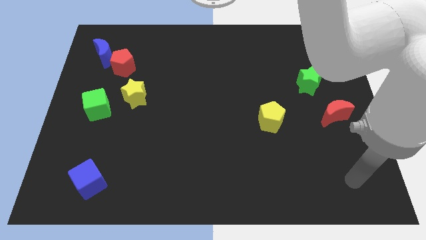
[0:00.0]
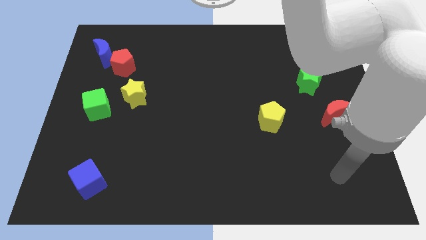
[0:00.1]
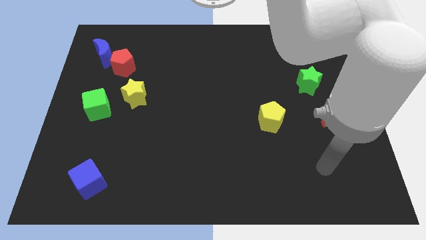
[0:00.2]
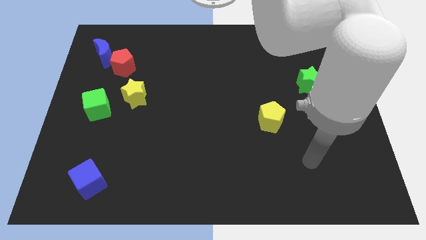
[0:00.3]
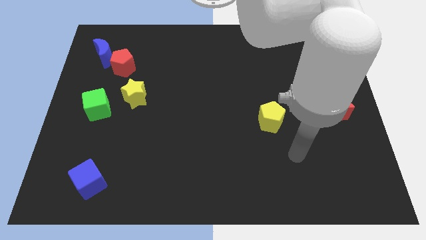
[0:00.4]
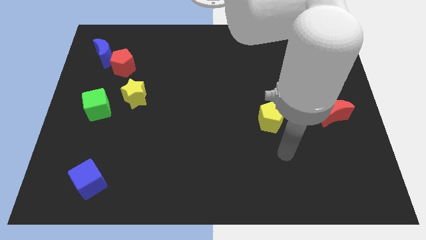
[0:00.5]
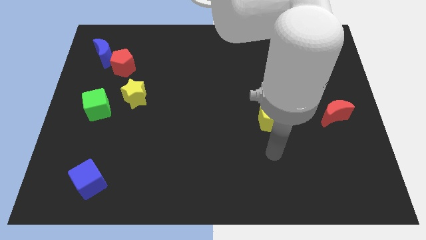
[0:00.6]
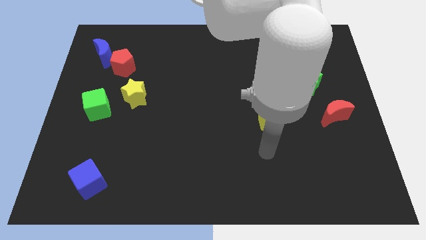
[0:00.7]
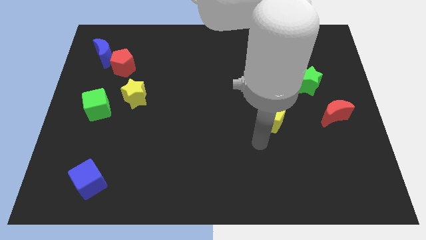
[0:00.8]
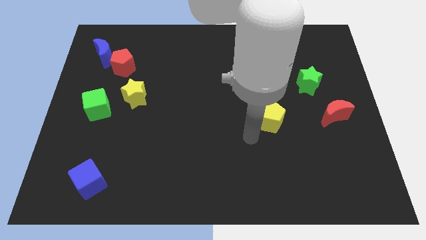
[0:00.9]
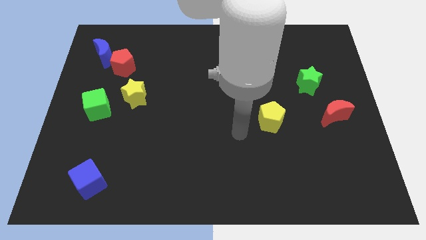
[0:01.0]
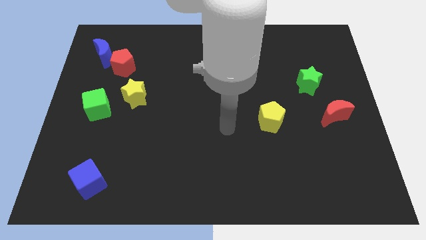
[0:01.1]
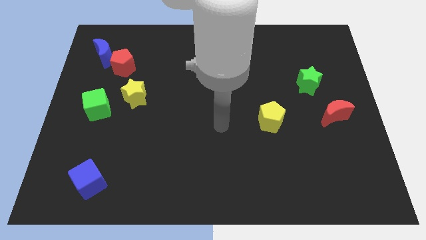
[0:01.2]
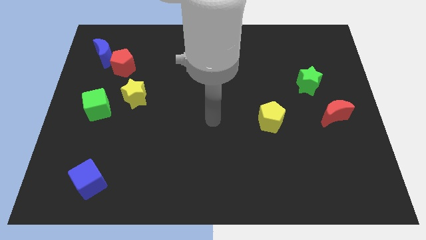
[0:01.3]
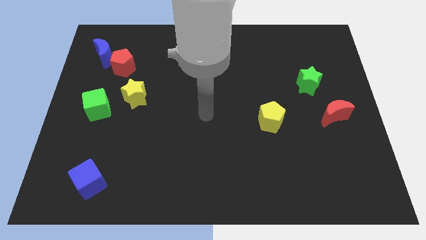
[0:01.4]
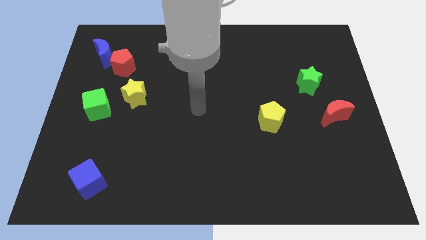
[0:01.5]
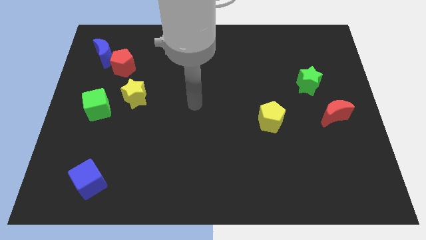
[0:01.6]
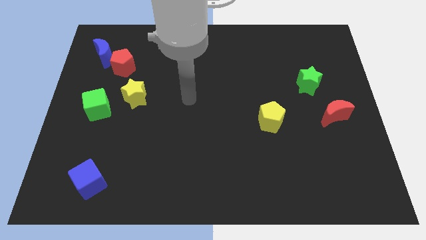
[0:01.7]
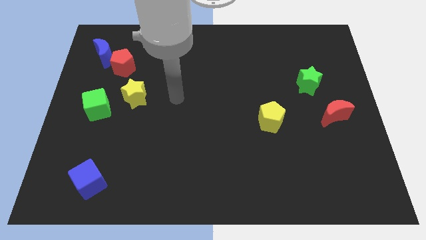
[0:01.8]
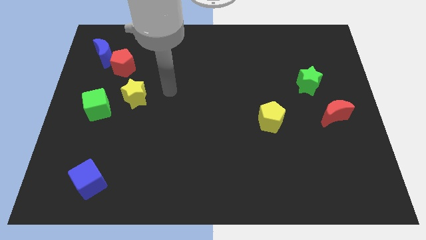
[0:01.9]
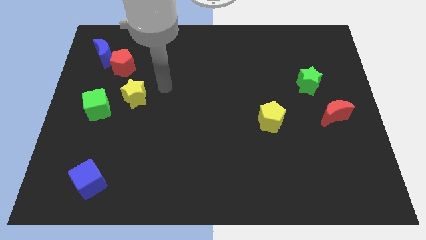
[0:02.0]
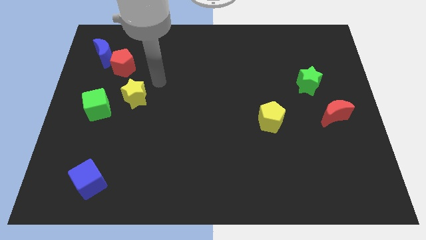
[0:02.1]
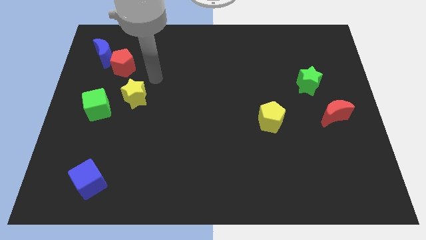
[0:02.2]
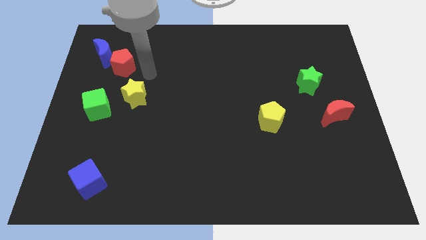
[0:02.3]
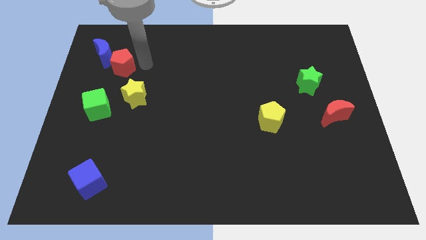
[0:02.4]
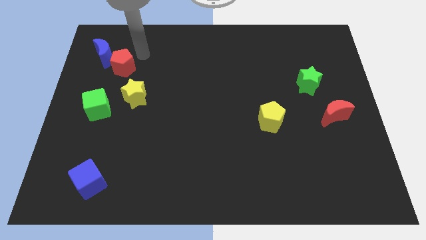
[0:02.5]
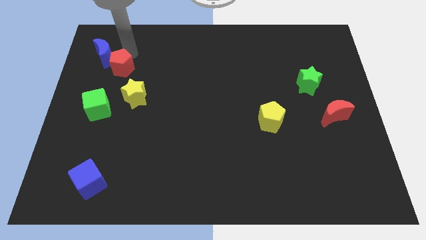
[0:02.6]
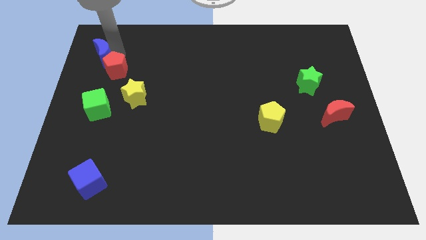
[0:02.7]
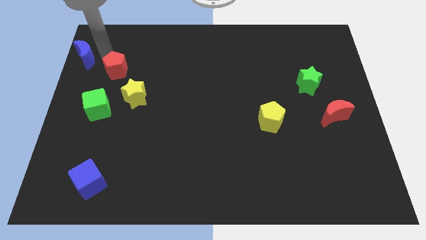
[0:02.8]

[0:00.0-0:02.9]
pull the red pentagon apart from the blue moon

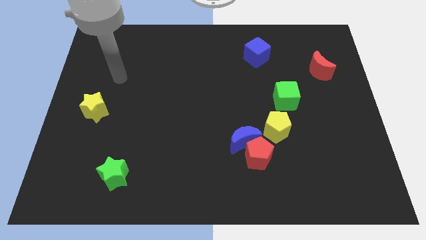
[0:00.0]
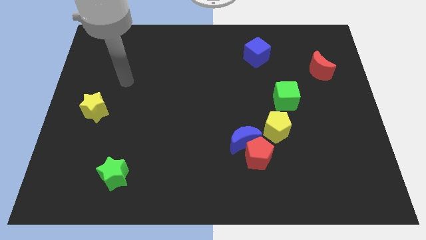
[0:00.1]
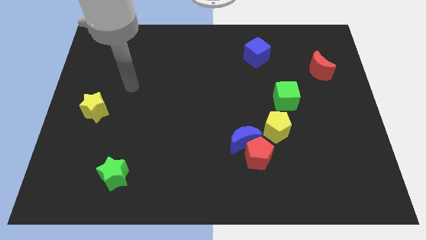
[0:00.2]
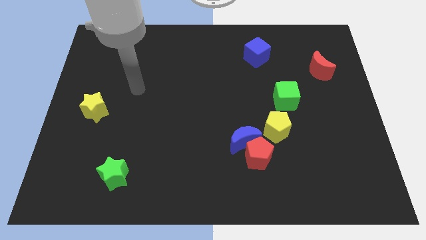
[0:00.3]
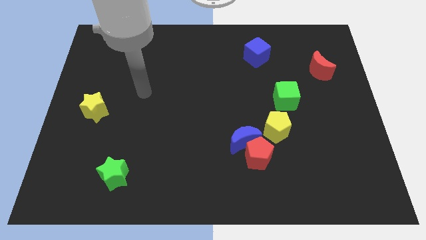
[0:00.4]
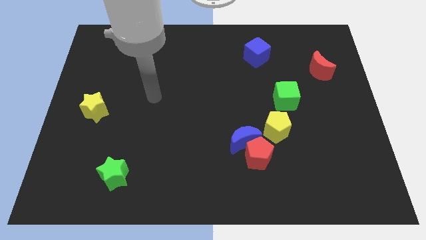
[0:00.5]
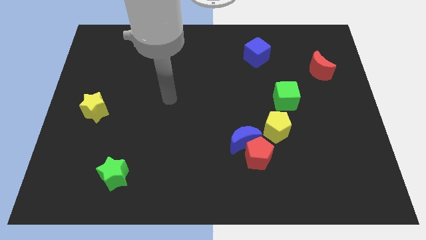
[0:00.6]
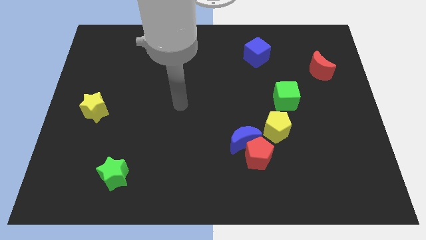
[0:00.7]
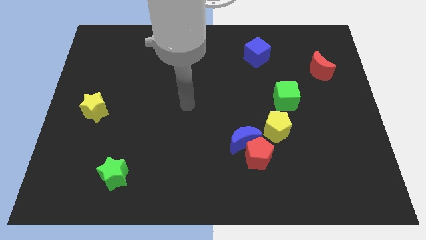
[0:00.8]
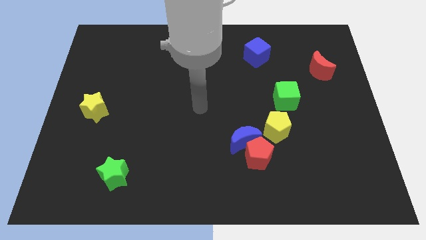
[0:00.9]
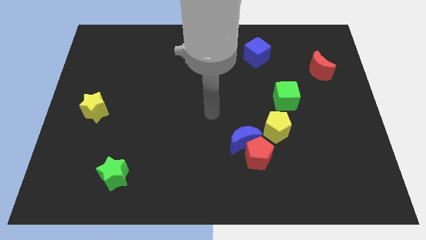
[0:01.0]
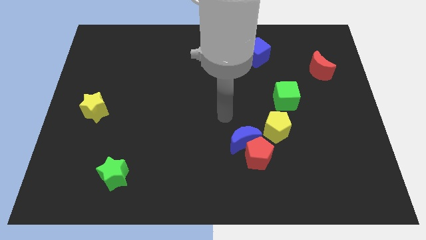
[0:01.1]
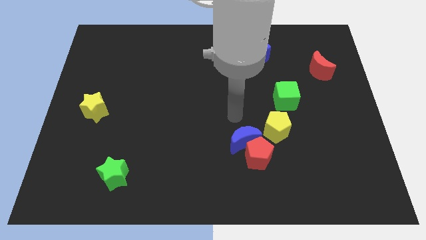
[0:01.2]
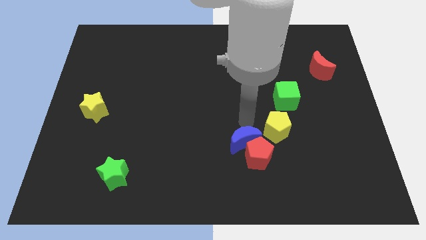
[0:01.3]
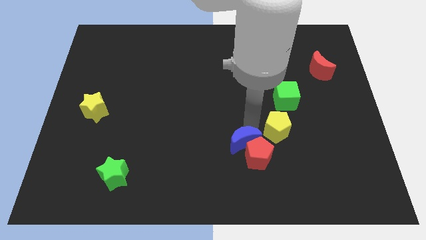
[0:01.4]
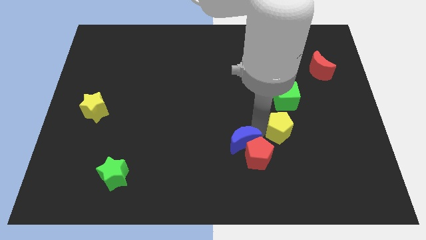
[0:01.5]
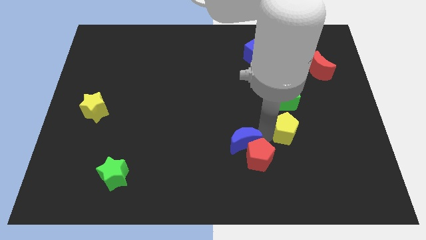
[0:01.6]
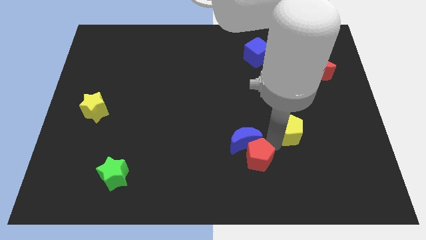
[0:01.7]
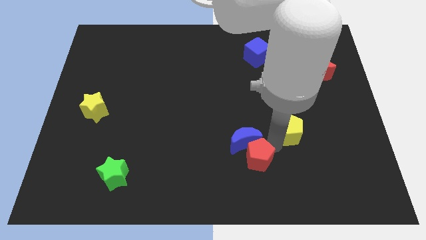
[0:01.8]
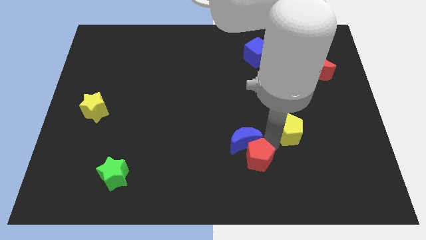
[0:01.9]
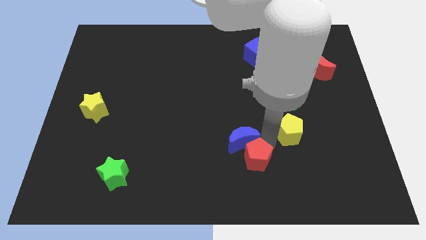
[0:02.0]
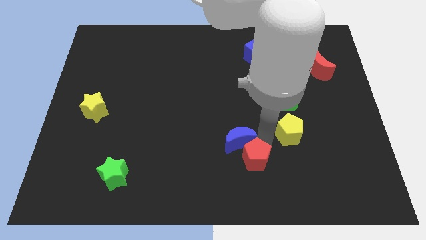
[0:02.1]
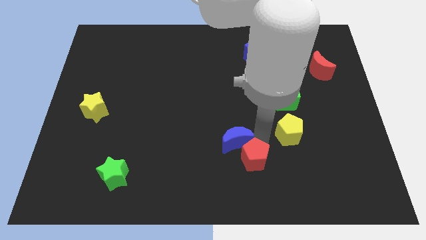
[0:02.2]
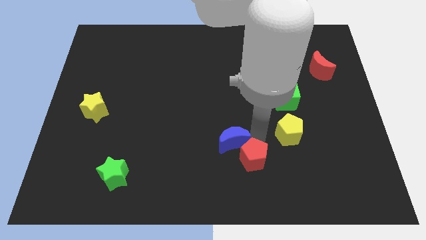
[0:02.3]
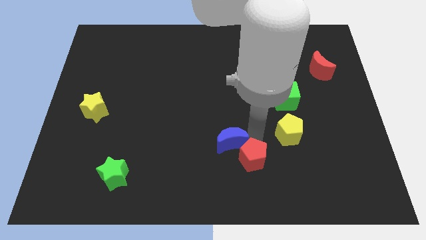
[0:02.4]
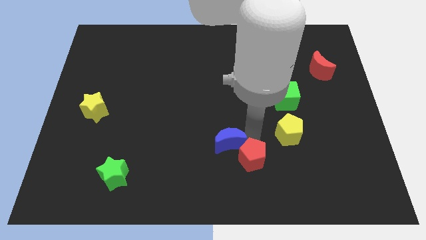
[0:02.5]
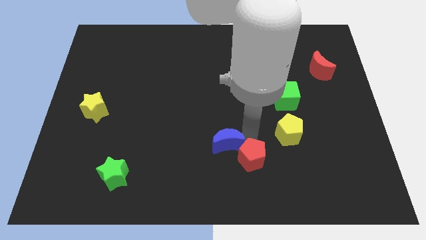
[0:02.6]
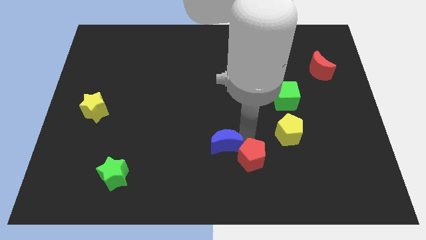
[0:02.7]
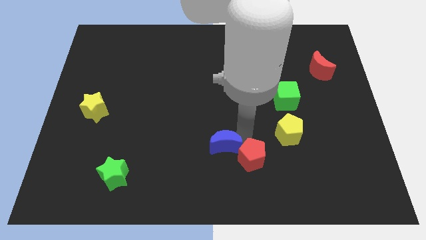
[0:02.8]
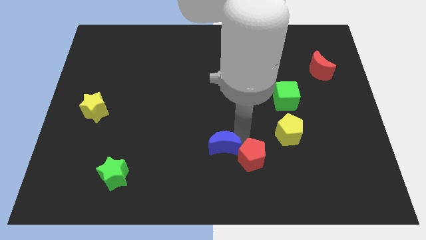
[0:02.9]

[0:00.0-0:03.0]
separate the blue moon from the red pentagon and yellow pentagon

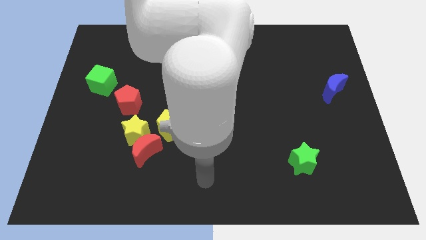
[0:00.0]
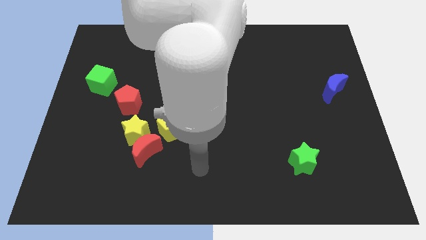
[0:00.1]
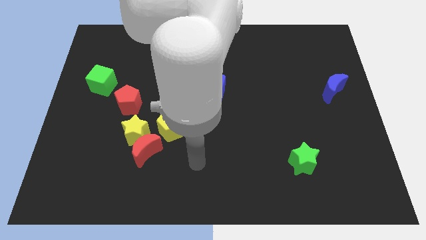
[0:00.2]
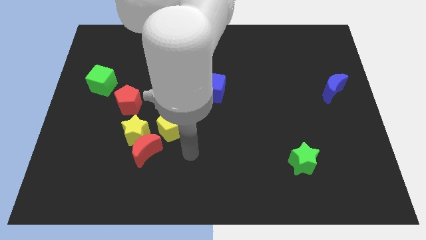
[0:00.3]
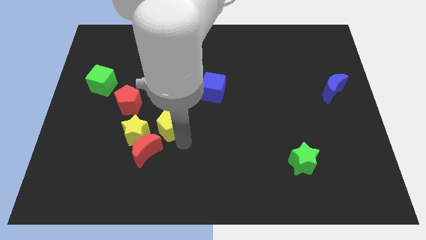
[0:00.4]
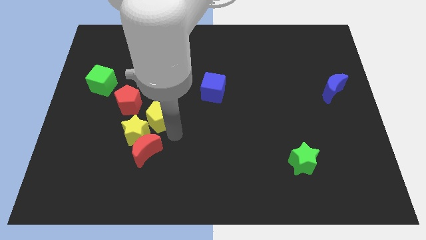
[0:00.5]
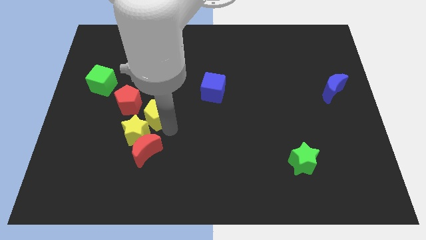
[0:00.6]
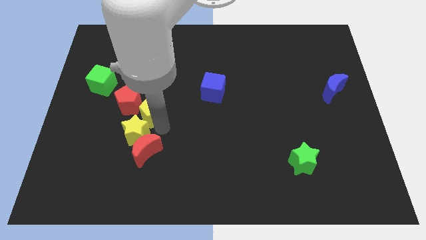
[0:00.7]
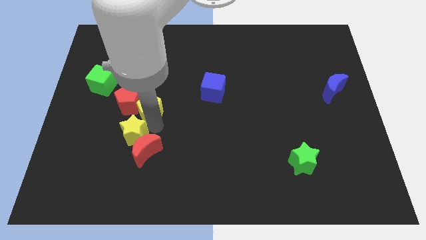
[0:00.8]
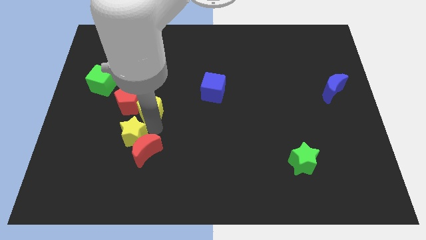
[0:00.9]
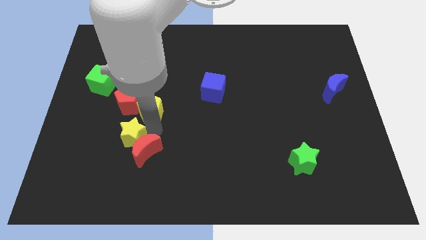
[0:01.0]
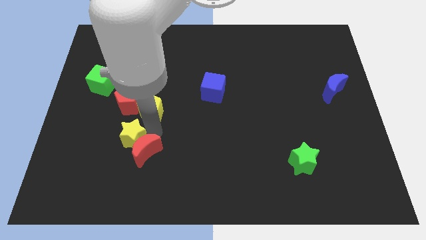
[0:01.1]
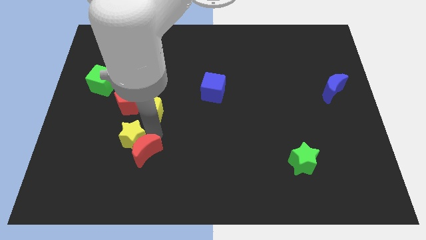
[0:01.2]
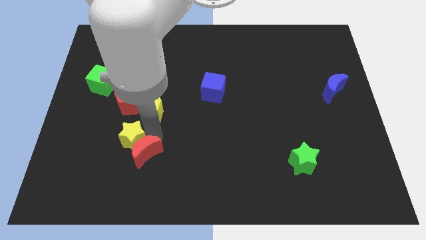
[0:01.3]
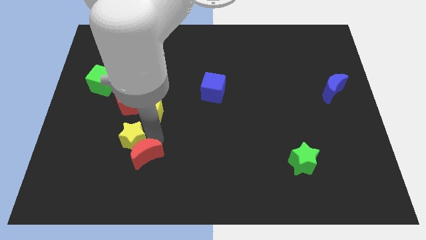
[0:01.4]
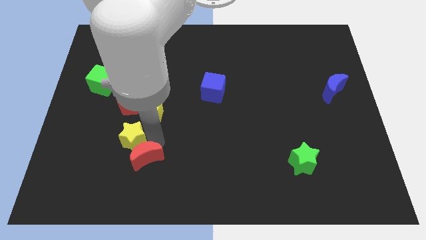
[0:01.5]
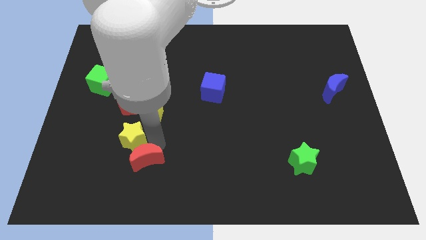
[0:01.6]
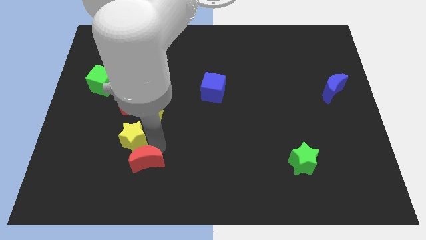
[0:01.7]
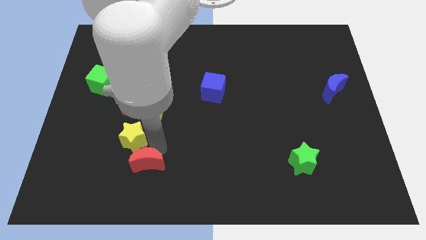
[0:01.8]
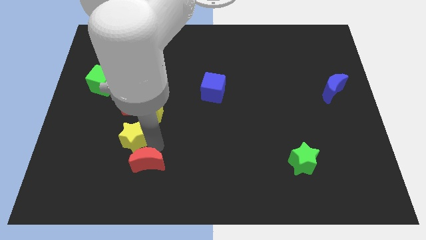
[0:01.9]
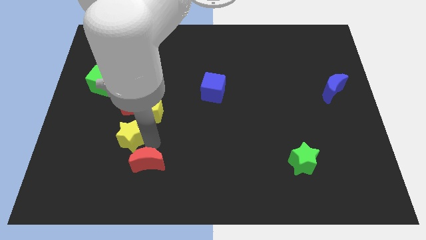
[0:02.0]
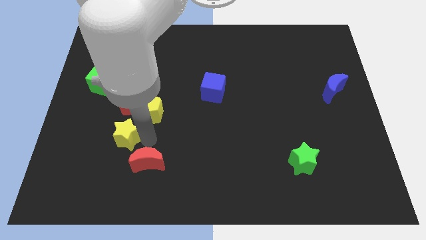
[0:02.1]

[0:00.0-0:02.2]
move the red moon away from the yellow star and yellow pentagon

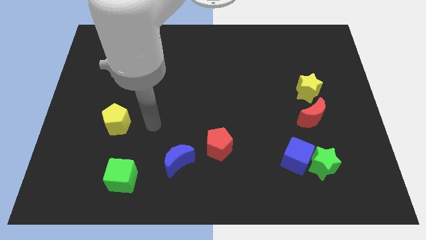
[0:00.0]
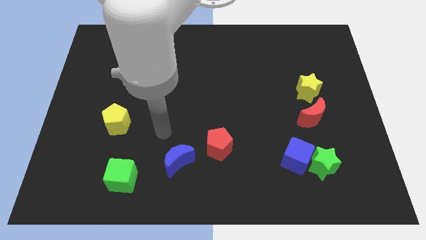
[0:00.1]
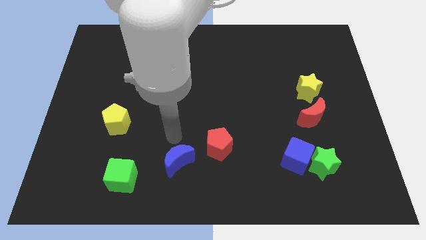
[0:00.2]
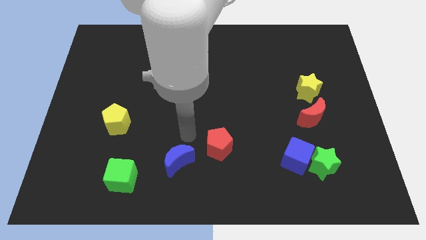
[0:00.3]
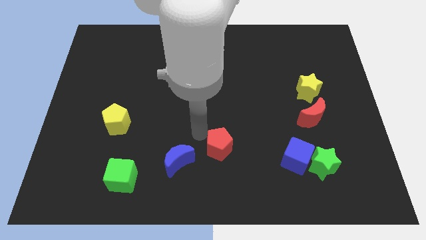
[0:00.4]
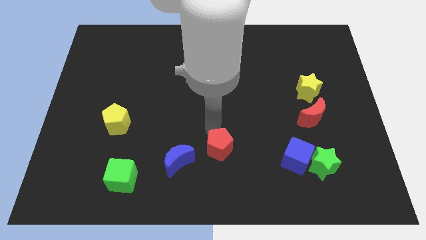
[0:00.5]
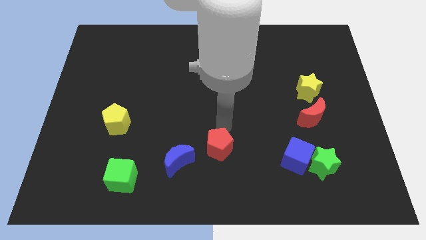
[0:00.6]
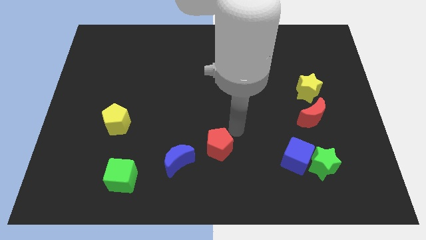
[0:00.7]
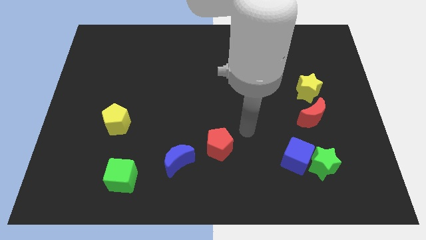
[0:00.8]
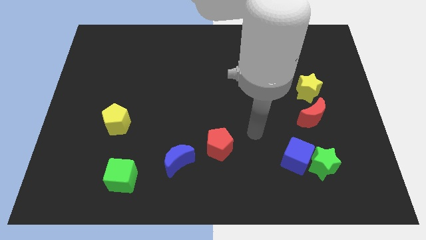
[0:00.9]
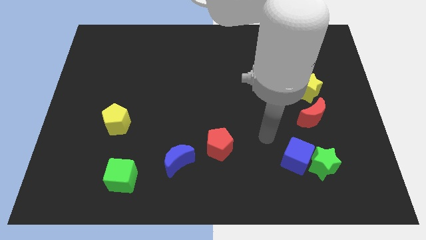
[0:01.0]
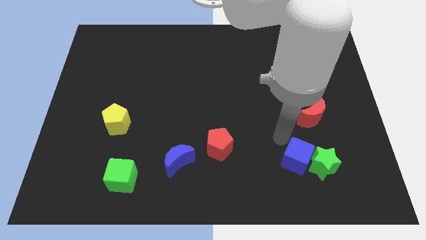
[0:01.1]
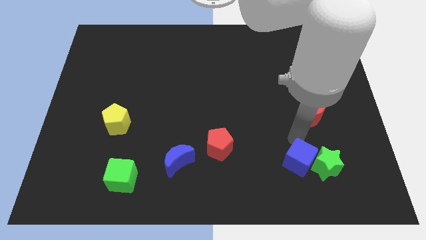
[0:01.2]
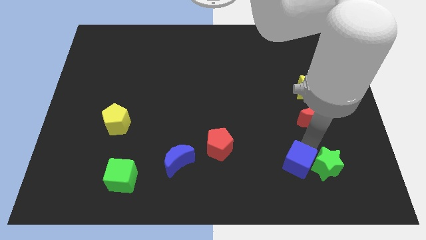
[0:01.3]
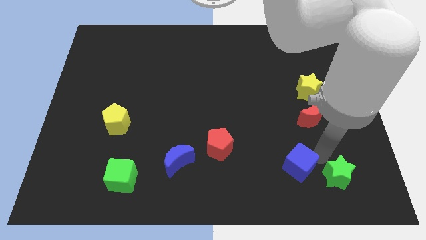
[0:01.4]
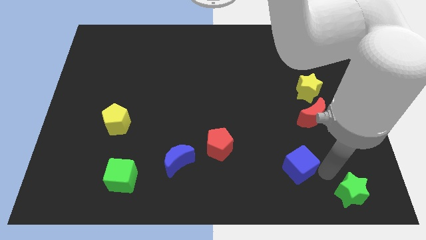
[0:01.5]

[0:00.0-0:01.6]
separate the blue cube from the green star
